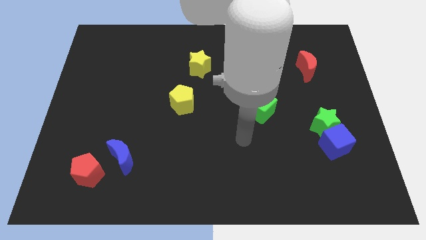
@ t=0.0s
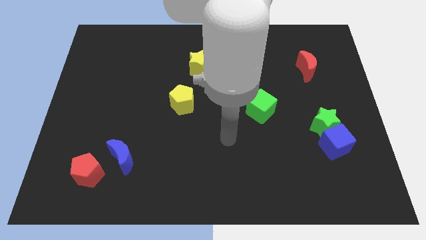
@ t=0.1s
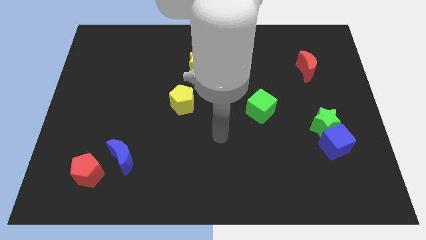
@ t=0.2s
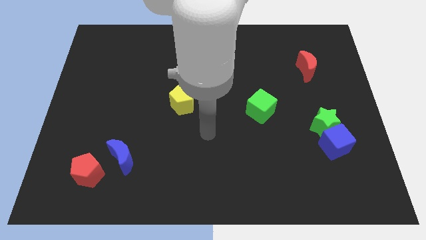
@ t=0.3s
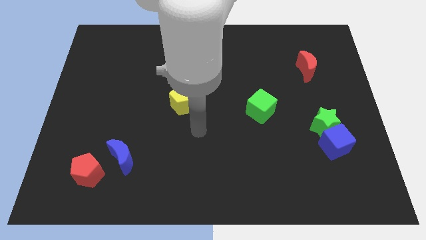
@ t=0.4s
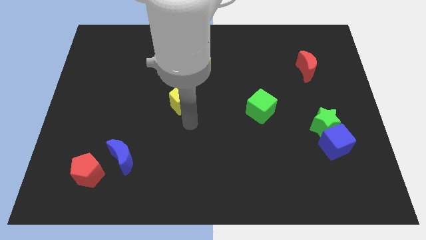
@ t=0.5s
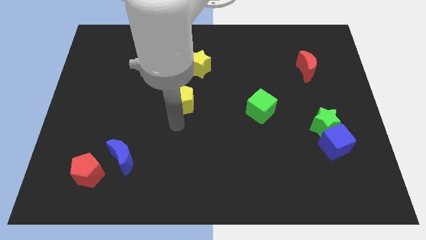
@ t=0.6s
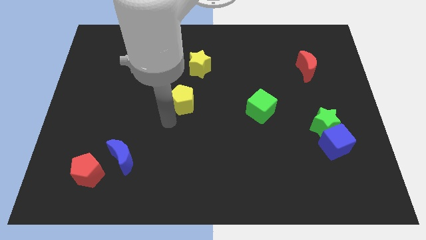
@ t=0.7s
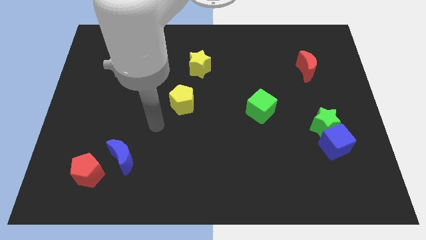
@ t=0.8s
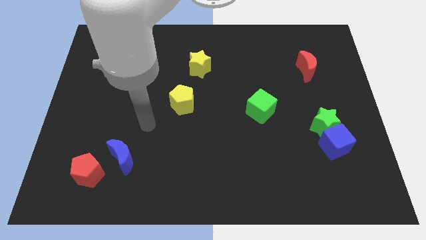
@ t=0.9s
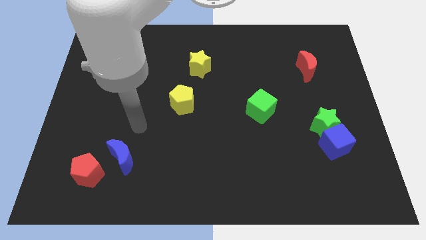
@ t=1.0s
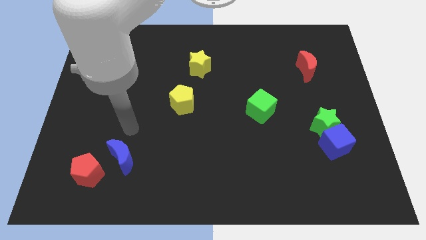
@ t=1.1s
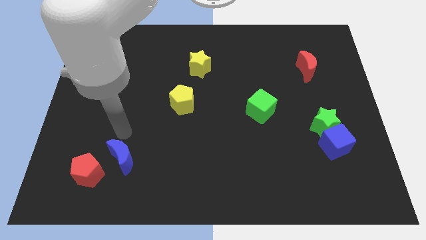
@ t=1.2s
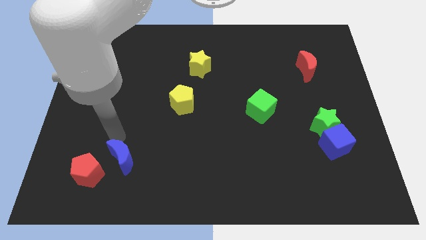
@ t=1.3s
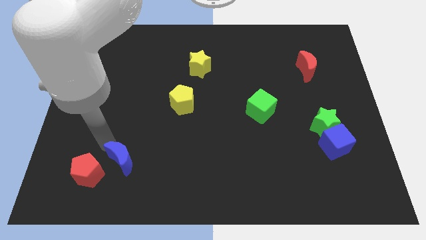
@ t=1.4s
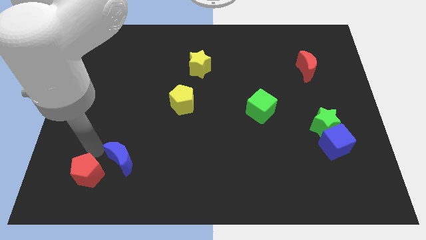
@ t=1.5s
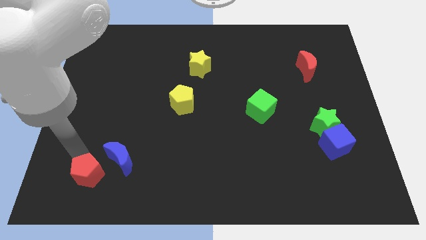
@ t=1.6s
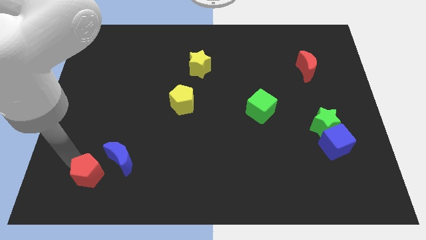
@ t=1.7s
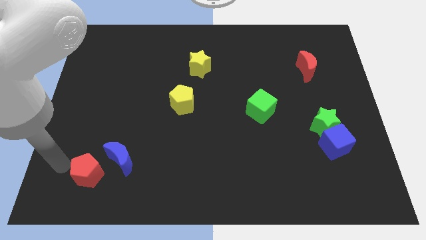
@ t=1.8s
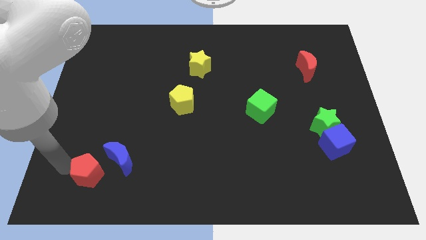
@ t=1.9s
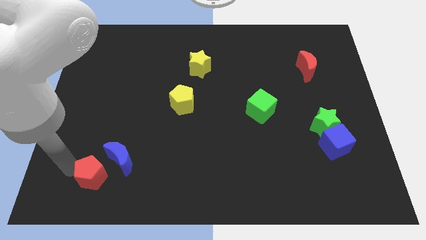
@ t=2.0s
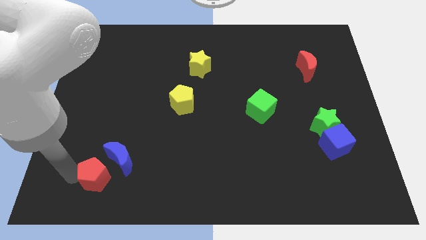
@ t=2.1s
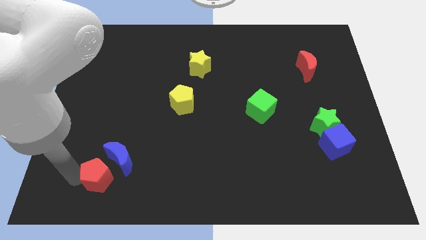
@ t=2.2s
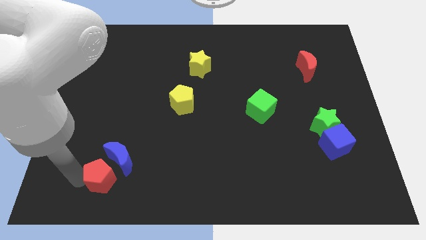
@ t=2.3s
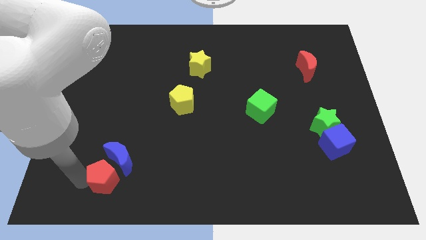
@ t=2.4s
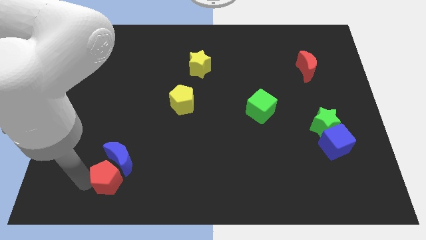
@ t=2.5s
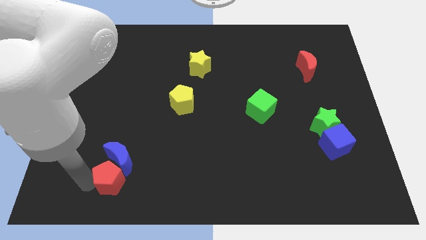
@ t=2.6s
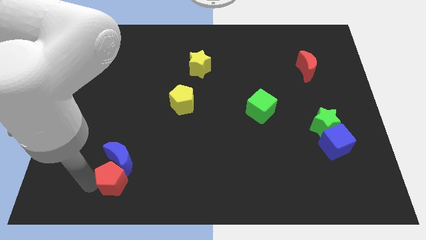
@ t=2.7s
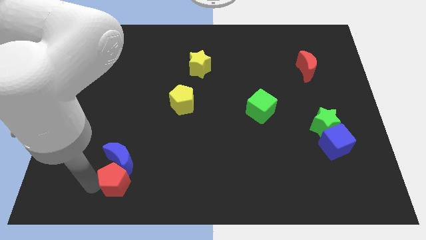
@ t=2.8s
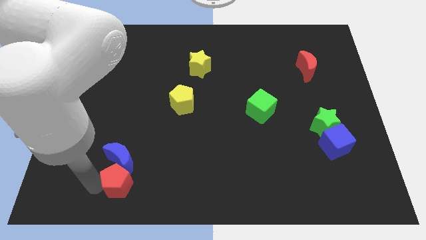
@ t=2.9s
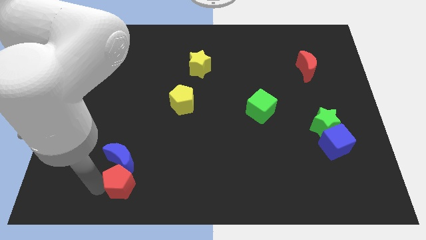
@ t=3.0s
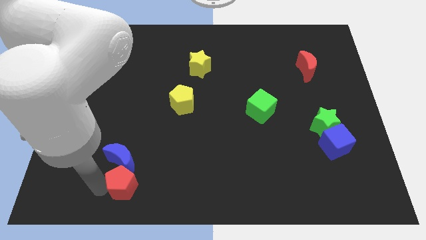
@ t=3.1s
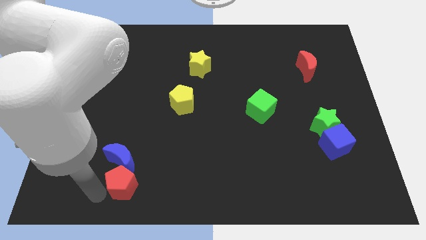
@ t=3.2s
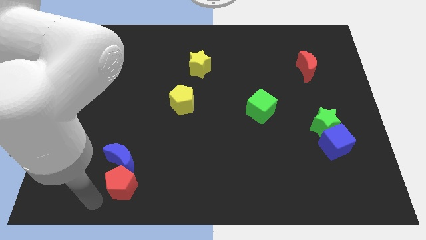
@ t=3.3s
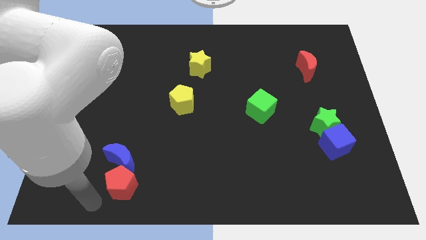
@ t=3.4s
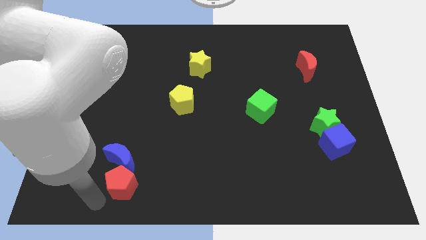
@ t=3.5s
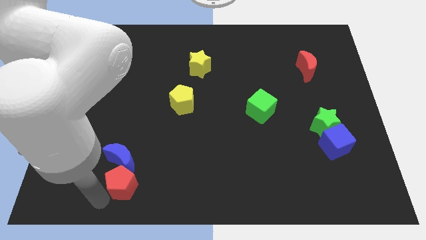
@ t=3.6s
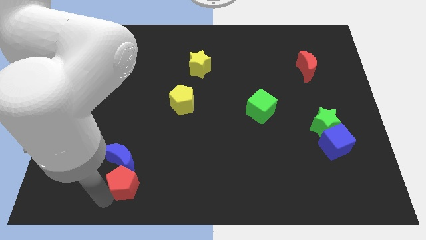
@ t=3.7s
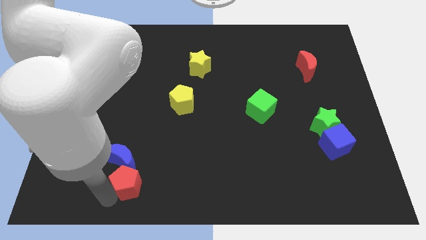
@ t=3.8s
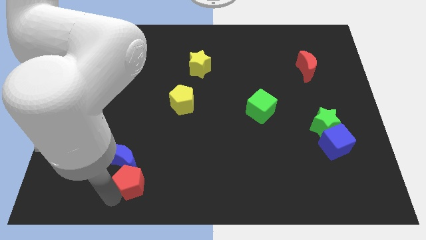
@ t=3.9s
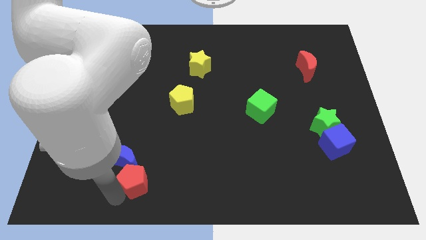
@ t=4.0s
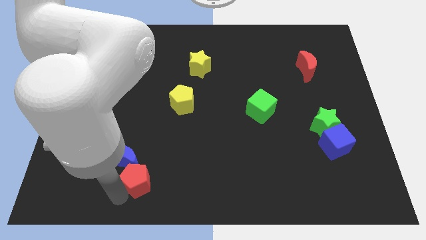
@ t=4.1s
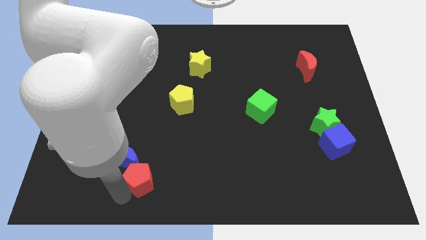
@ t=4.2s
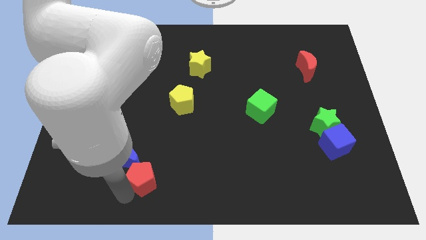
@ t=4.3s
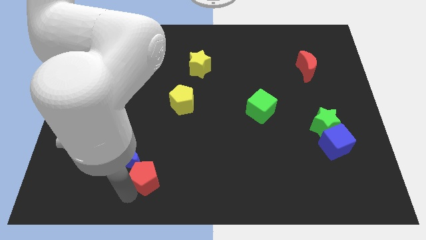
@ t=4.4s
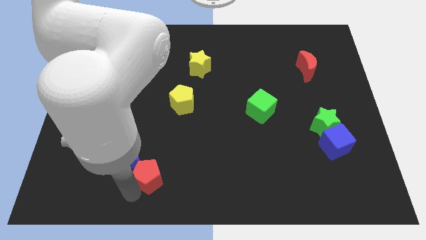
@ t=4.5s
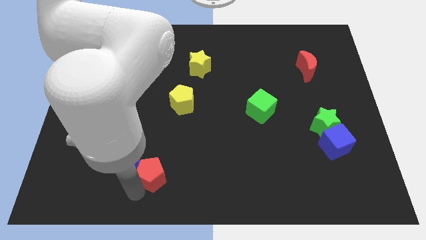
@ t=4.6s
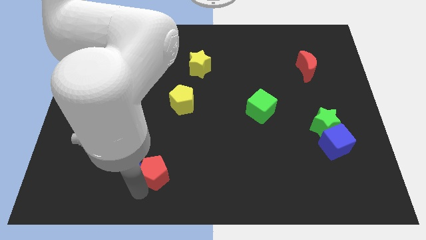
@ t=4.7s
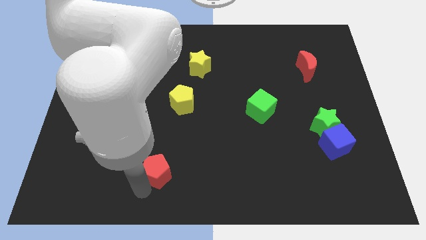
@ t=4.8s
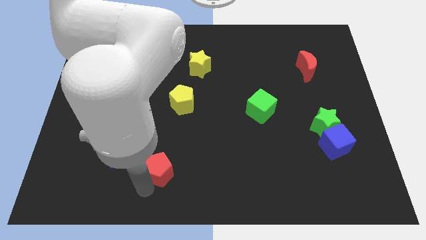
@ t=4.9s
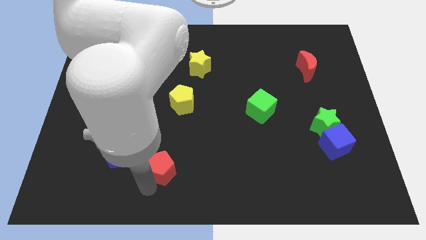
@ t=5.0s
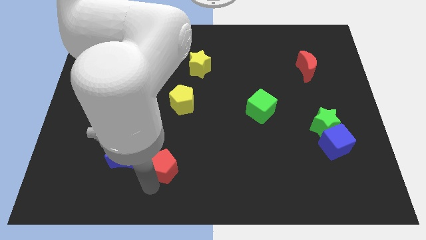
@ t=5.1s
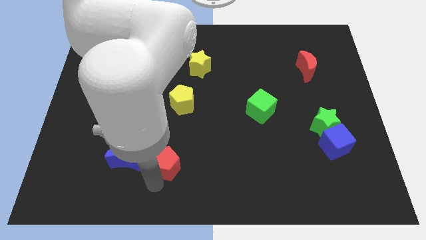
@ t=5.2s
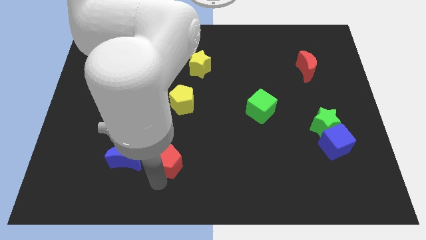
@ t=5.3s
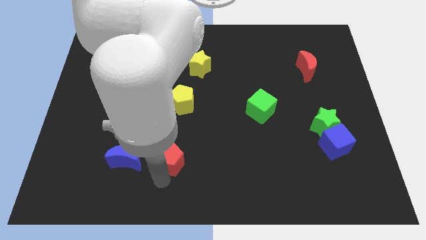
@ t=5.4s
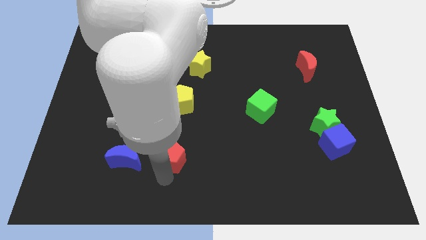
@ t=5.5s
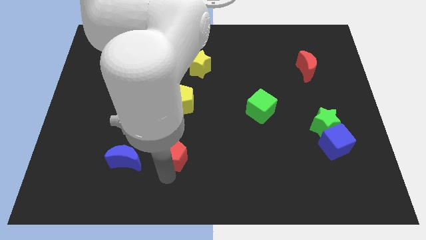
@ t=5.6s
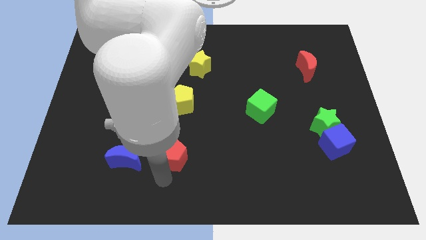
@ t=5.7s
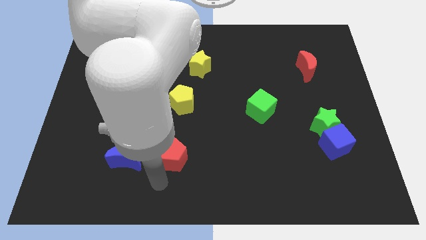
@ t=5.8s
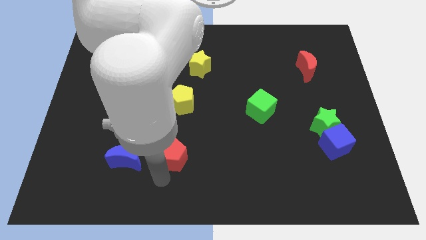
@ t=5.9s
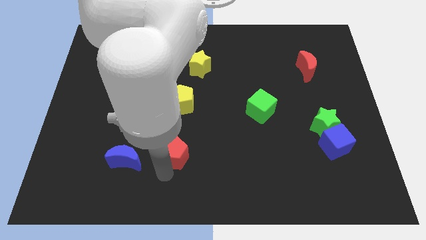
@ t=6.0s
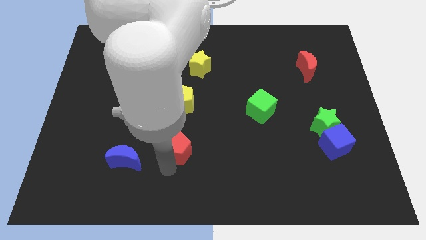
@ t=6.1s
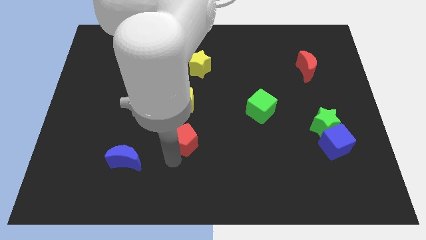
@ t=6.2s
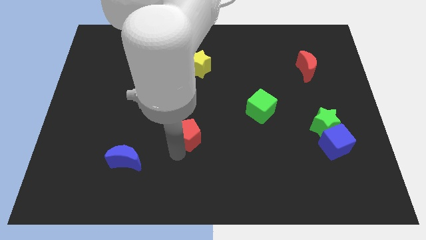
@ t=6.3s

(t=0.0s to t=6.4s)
push the red pentagon to the center of the board
